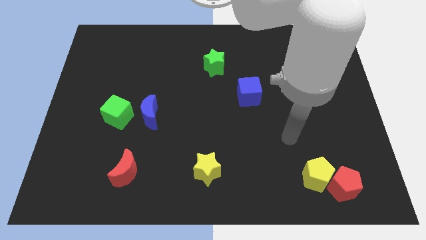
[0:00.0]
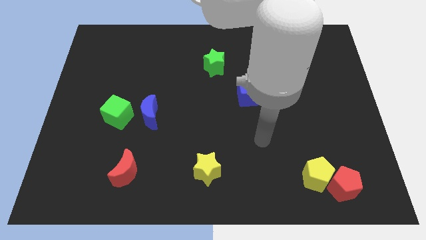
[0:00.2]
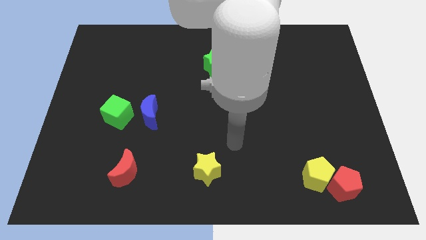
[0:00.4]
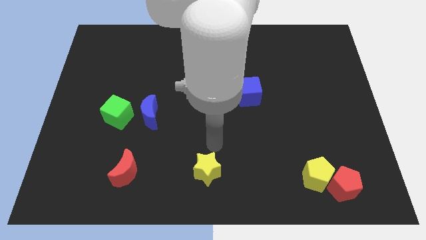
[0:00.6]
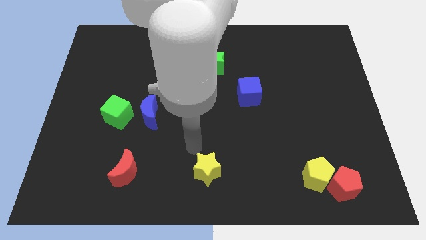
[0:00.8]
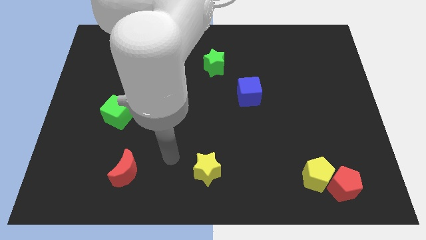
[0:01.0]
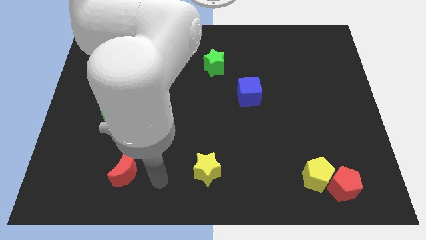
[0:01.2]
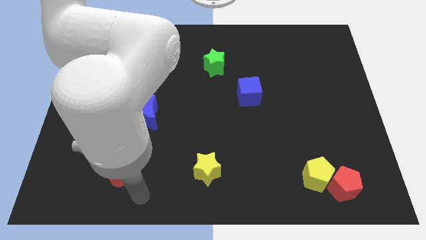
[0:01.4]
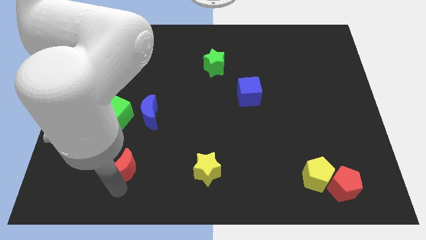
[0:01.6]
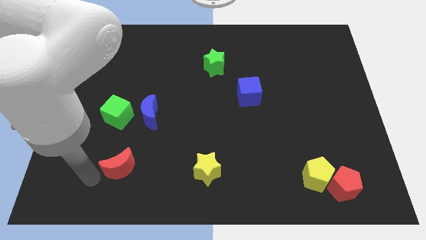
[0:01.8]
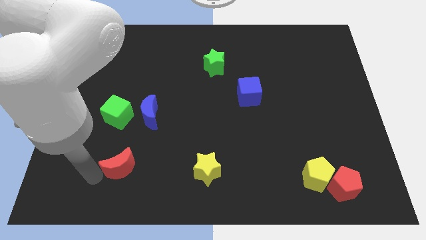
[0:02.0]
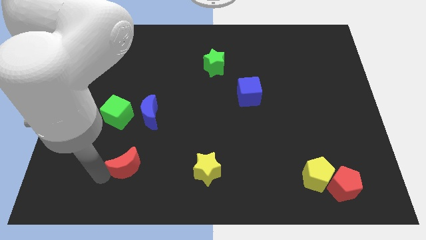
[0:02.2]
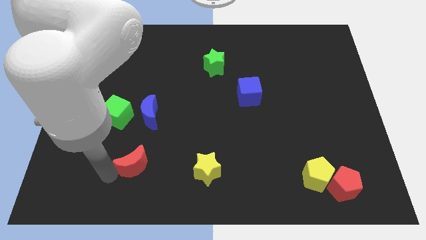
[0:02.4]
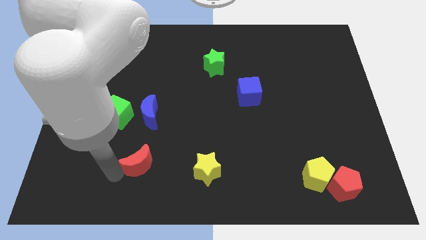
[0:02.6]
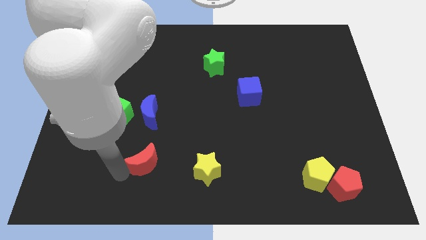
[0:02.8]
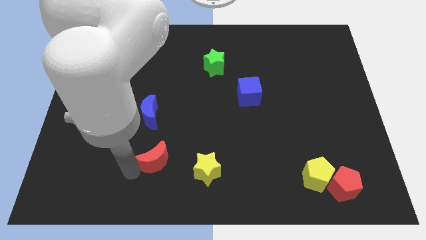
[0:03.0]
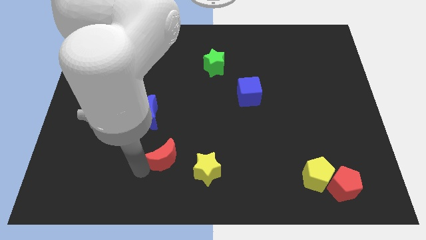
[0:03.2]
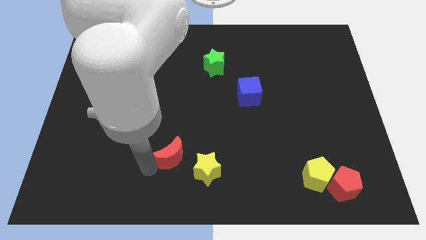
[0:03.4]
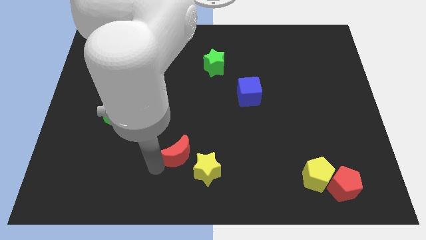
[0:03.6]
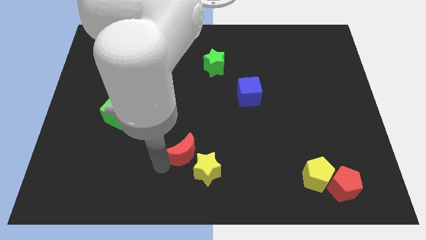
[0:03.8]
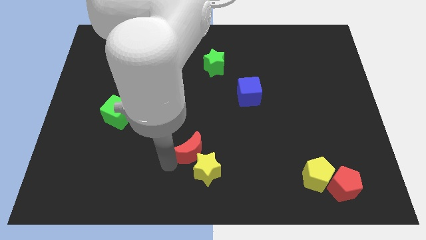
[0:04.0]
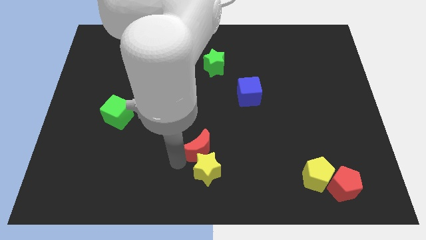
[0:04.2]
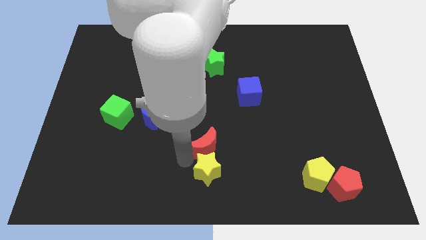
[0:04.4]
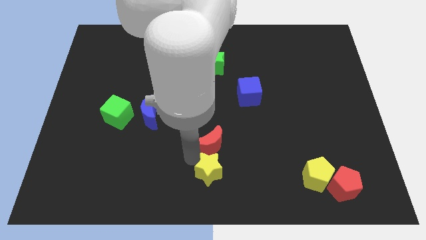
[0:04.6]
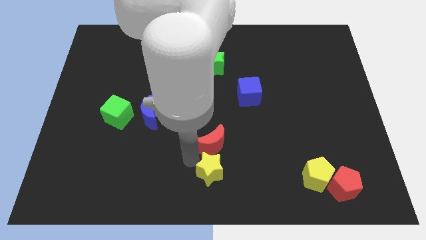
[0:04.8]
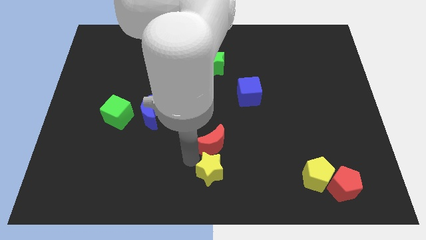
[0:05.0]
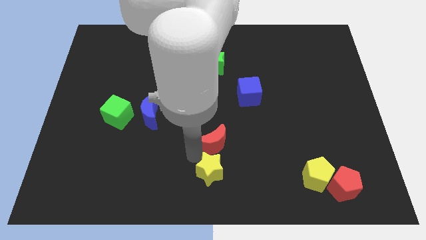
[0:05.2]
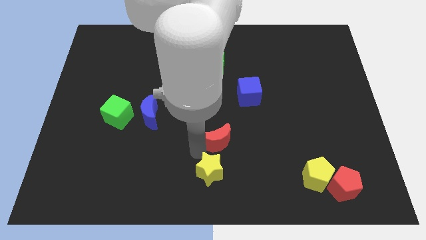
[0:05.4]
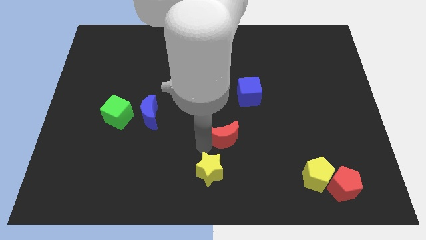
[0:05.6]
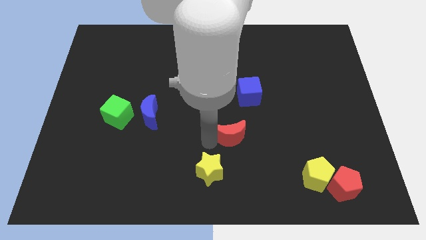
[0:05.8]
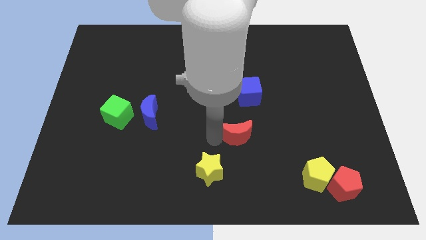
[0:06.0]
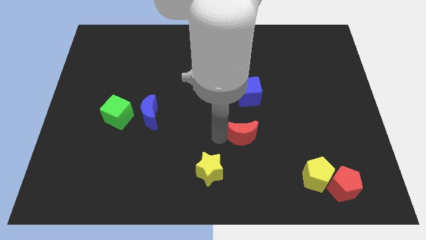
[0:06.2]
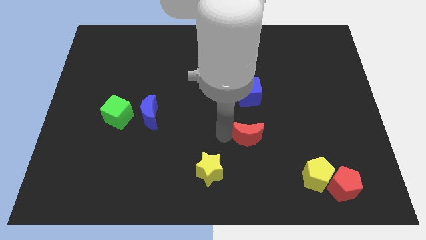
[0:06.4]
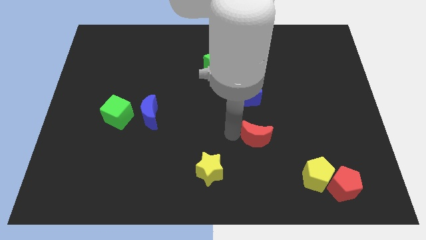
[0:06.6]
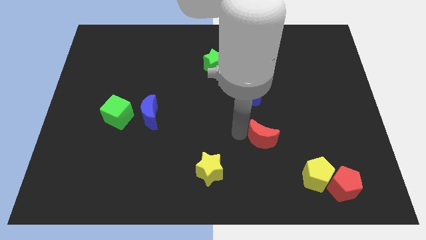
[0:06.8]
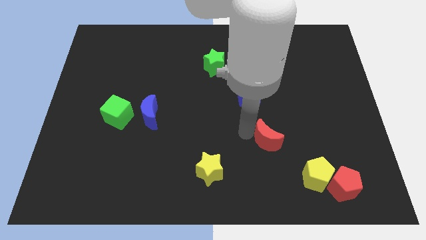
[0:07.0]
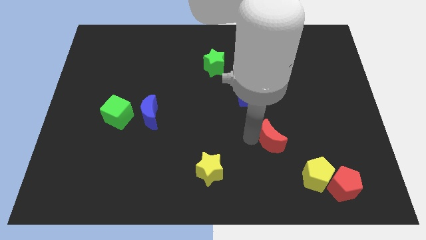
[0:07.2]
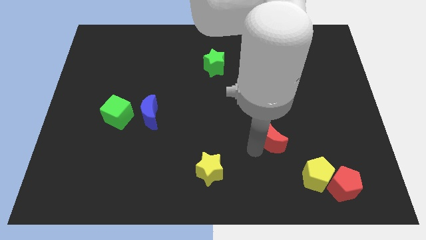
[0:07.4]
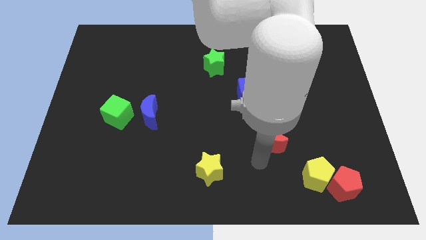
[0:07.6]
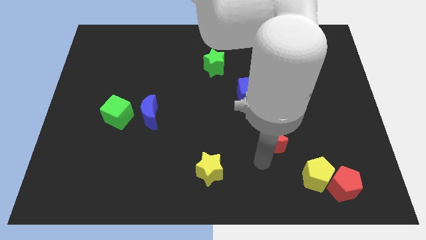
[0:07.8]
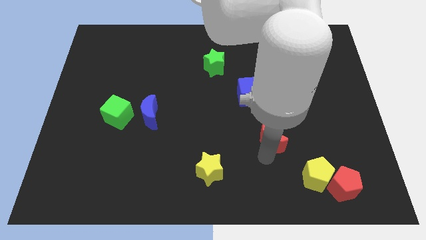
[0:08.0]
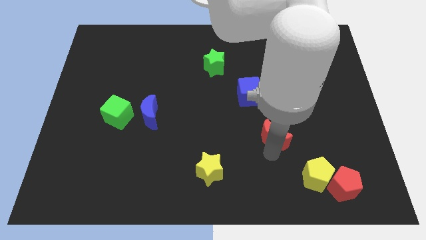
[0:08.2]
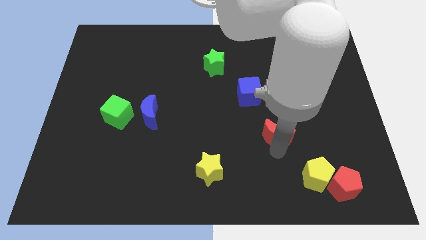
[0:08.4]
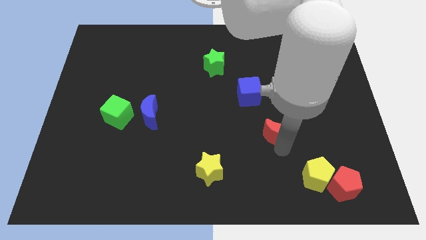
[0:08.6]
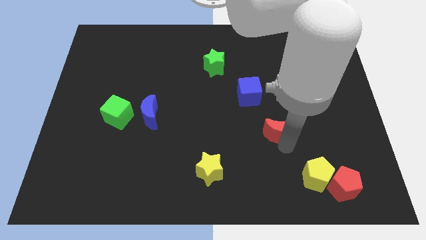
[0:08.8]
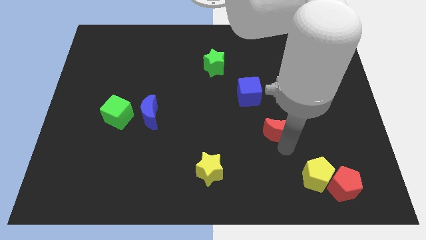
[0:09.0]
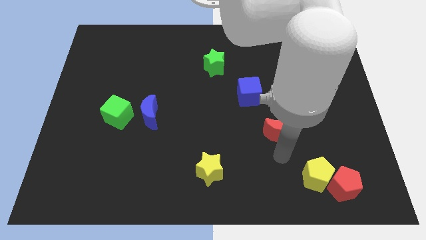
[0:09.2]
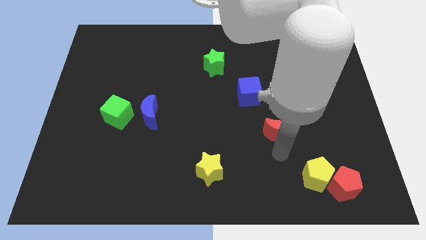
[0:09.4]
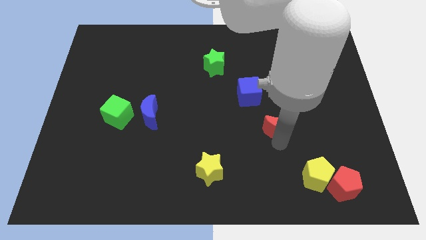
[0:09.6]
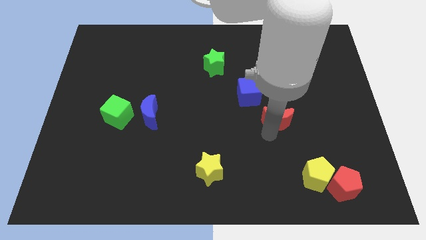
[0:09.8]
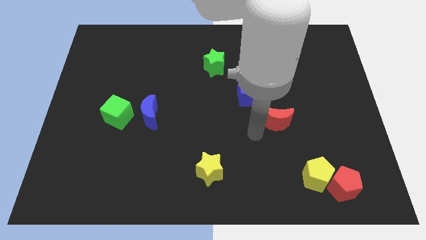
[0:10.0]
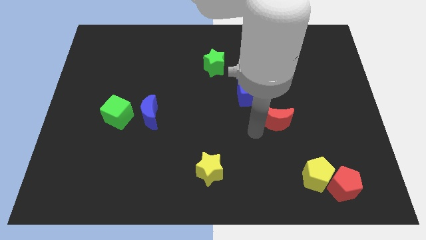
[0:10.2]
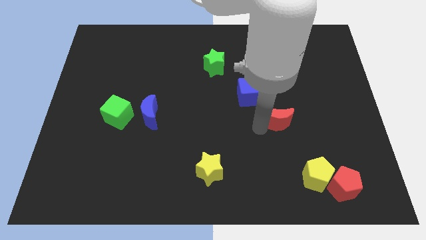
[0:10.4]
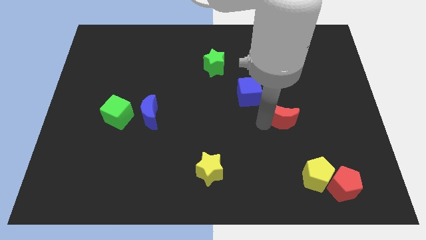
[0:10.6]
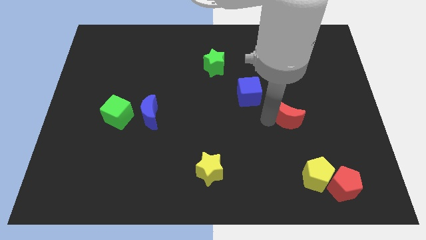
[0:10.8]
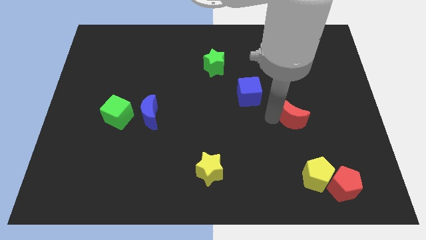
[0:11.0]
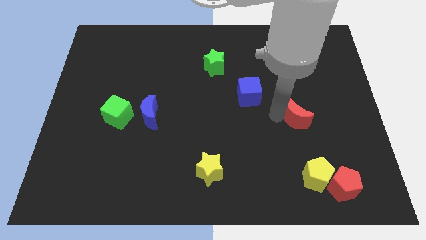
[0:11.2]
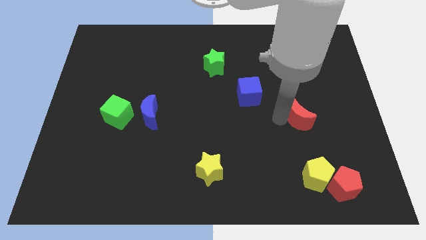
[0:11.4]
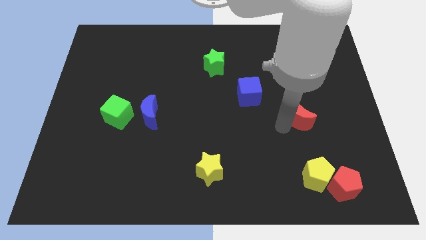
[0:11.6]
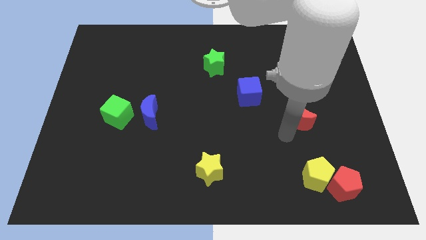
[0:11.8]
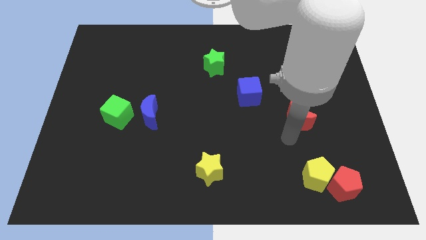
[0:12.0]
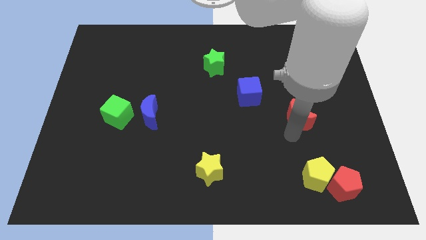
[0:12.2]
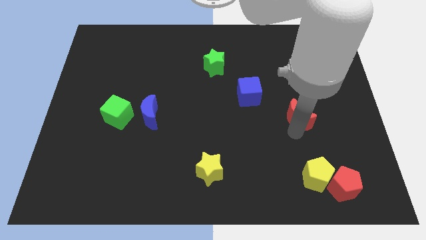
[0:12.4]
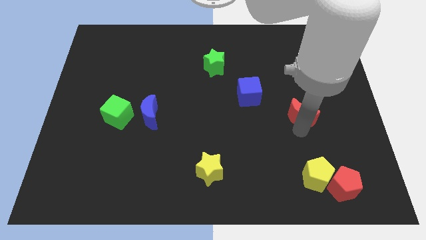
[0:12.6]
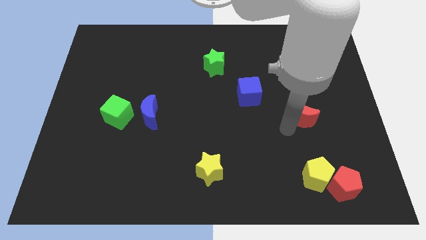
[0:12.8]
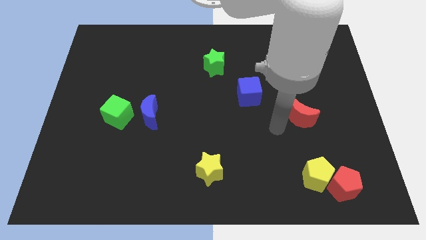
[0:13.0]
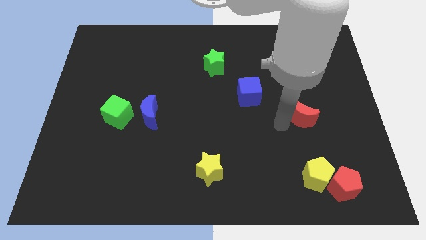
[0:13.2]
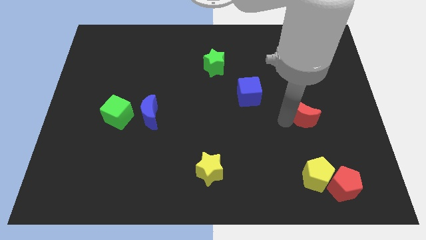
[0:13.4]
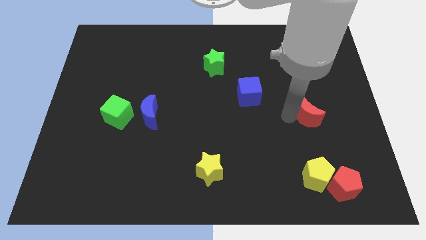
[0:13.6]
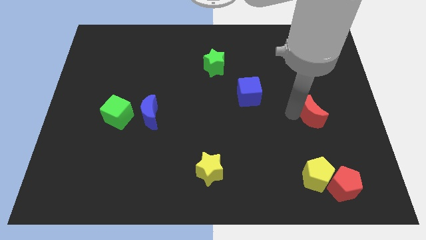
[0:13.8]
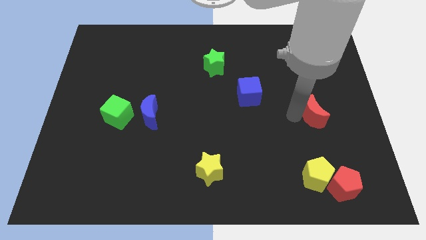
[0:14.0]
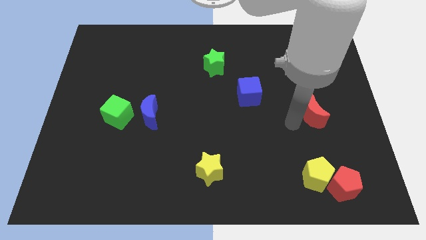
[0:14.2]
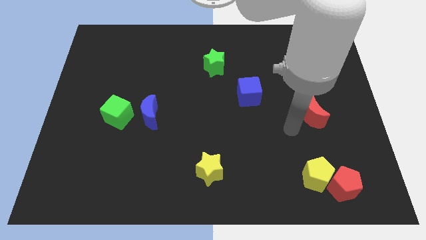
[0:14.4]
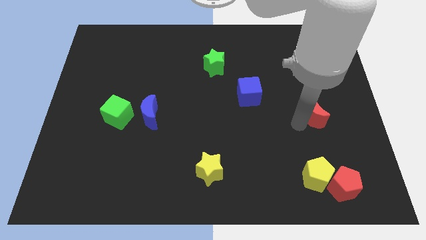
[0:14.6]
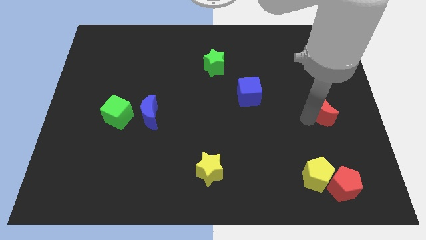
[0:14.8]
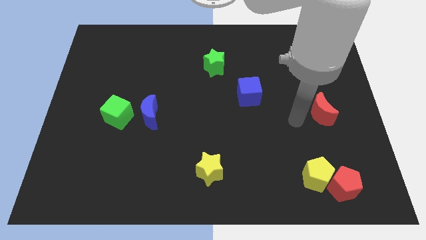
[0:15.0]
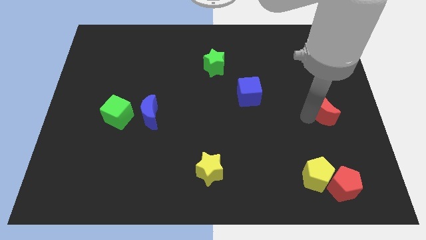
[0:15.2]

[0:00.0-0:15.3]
push the red moon to the center right
